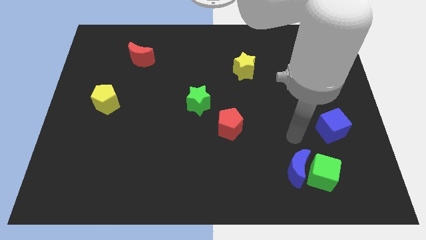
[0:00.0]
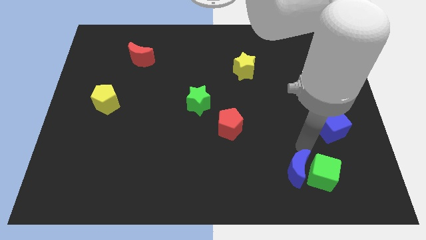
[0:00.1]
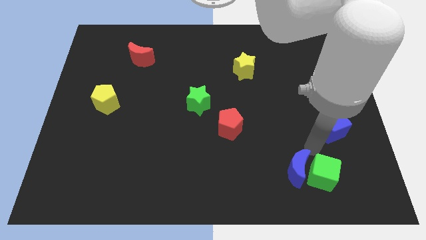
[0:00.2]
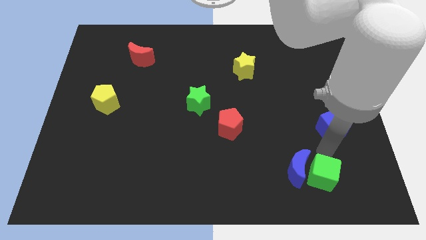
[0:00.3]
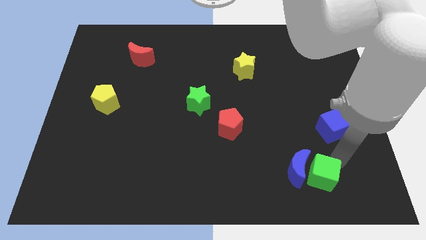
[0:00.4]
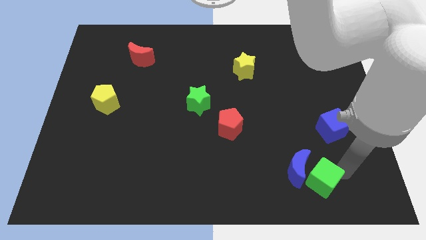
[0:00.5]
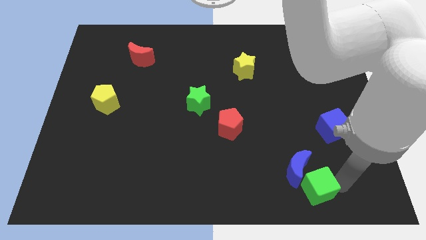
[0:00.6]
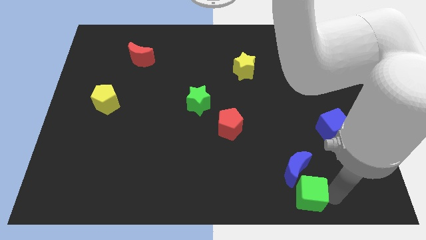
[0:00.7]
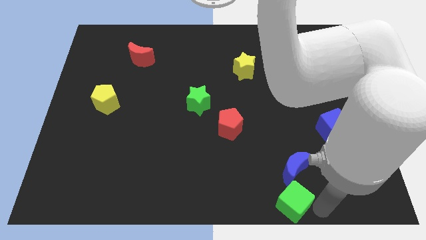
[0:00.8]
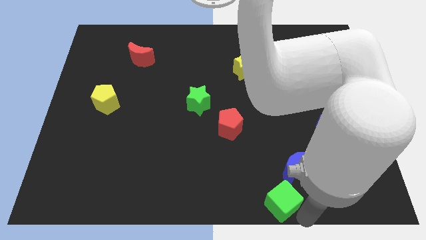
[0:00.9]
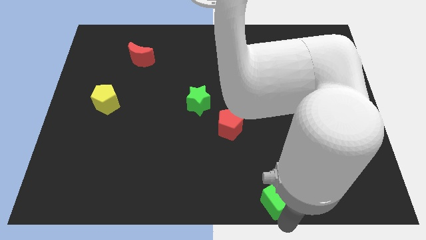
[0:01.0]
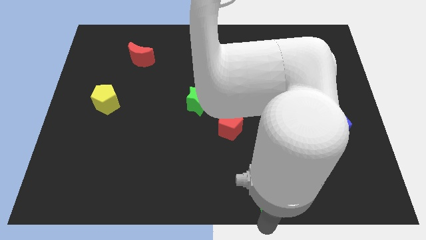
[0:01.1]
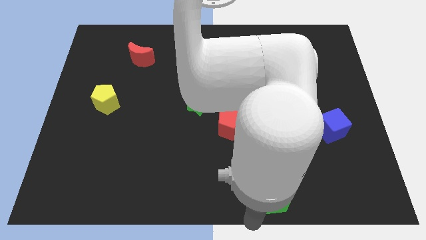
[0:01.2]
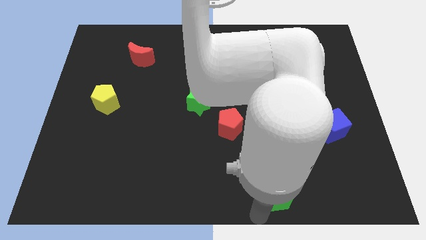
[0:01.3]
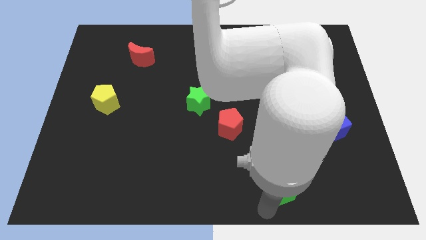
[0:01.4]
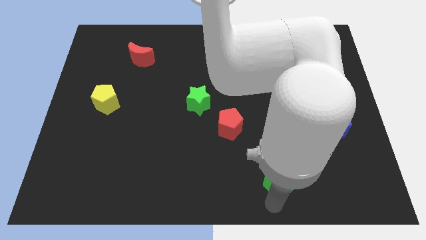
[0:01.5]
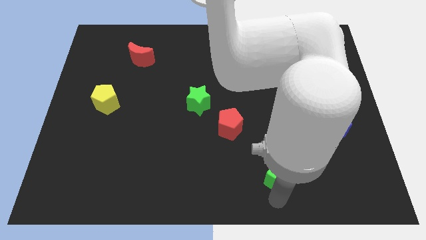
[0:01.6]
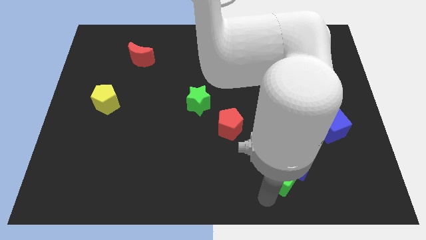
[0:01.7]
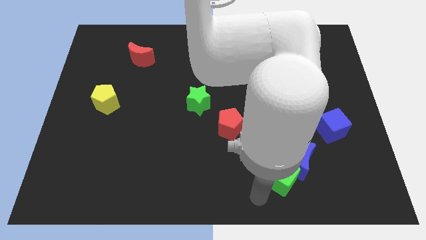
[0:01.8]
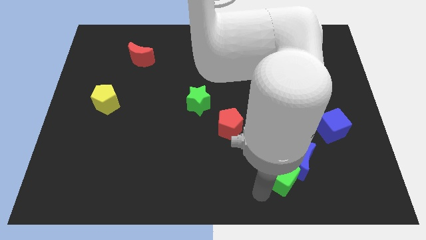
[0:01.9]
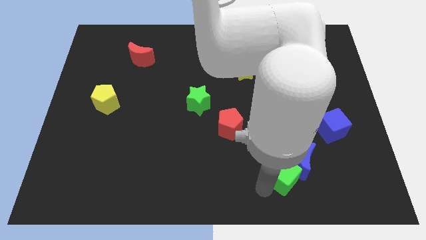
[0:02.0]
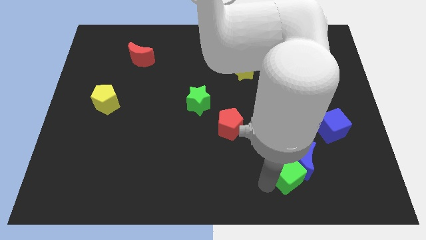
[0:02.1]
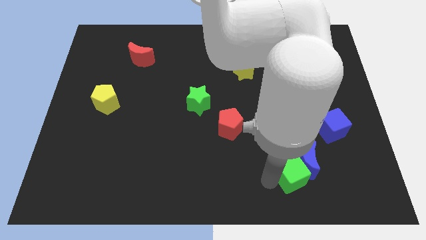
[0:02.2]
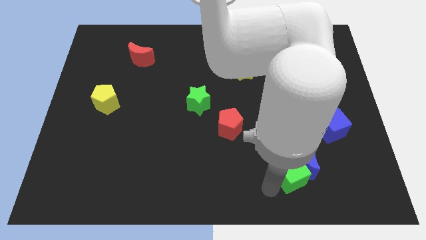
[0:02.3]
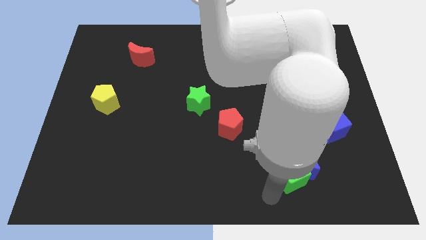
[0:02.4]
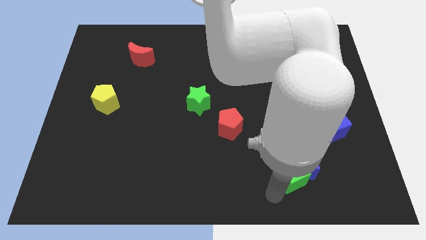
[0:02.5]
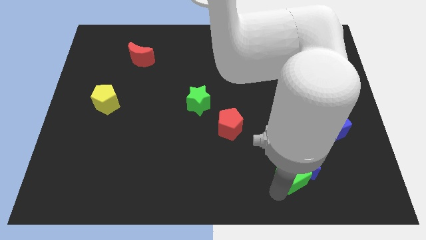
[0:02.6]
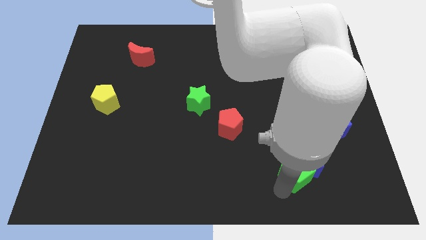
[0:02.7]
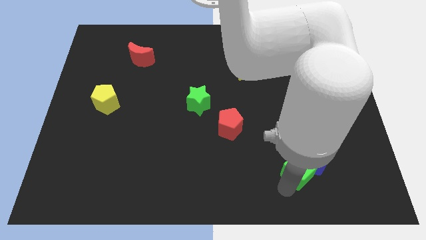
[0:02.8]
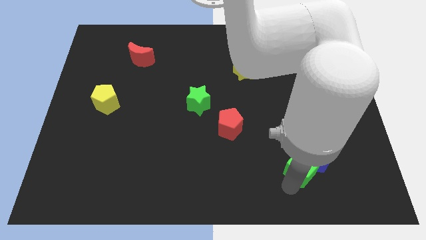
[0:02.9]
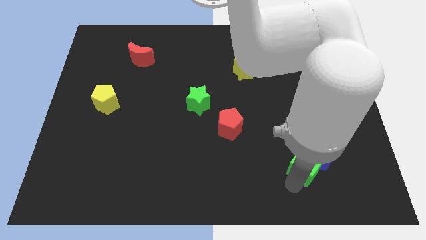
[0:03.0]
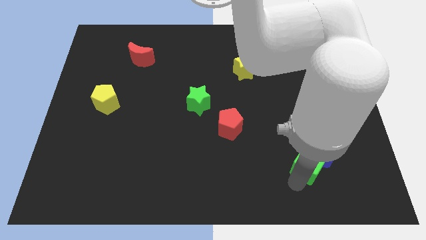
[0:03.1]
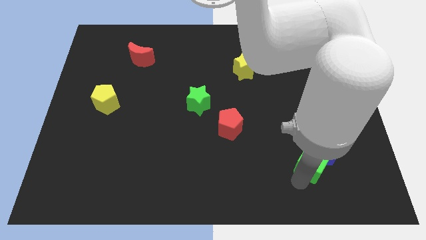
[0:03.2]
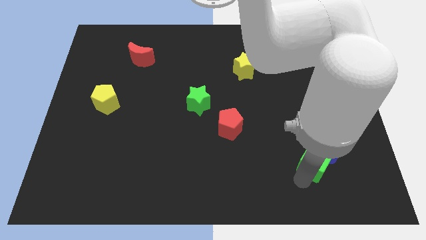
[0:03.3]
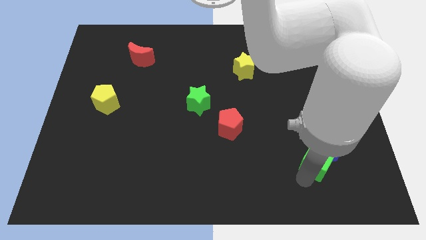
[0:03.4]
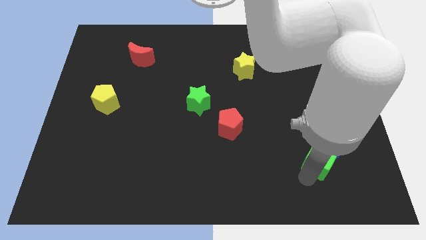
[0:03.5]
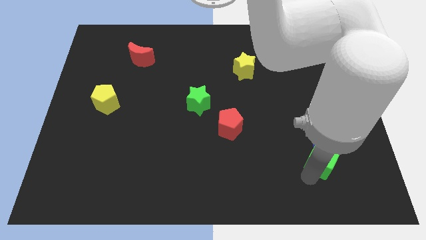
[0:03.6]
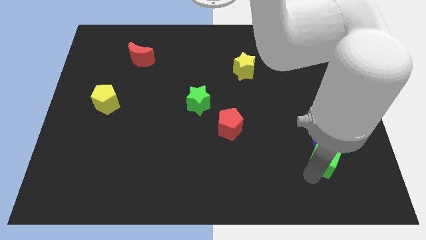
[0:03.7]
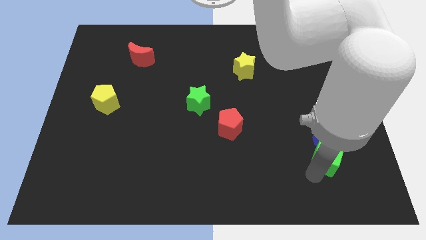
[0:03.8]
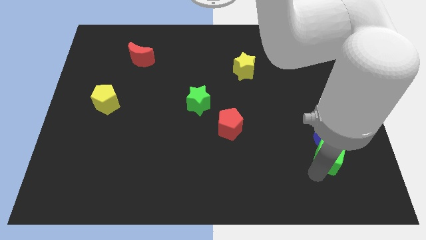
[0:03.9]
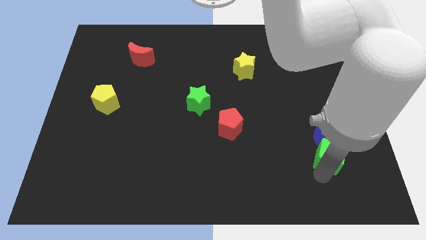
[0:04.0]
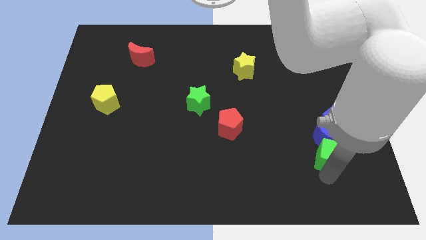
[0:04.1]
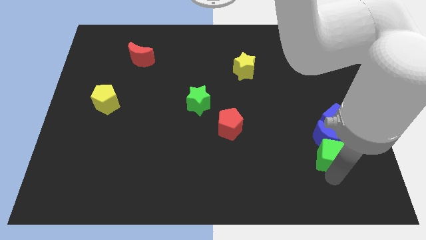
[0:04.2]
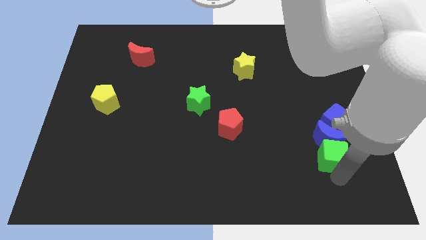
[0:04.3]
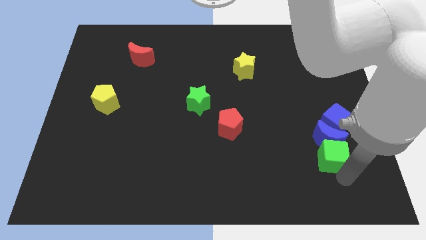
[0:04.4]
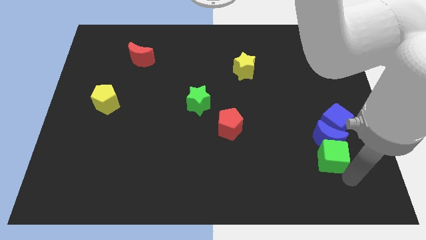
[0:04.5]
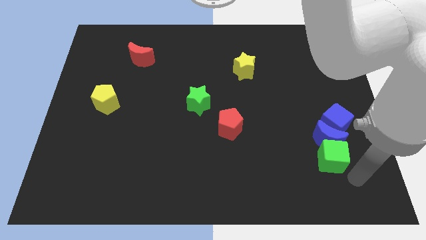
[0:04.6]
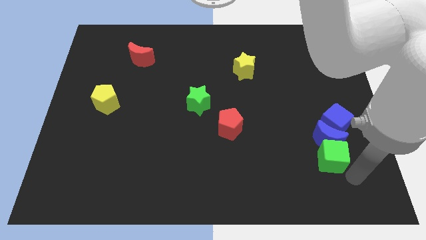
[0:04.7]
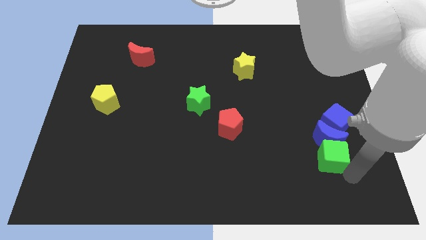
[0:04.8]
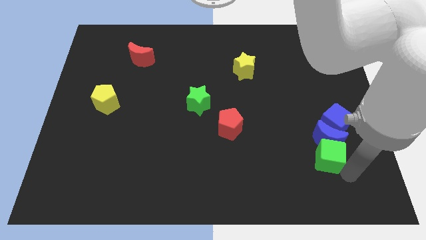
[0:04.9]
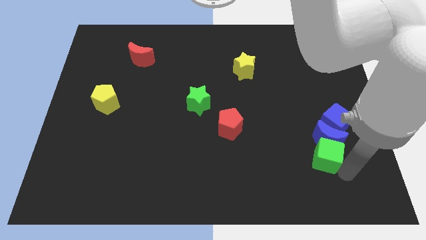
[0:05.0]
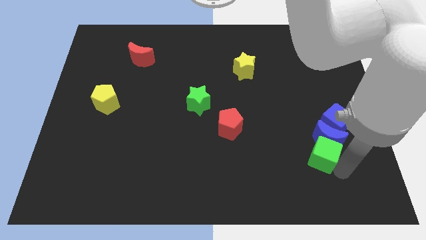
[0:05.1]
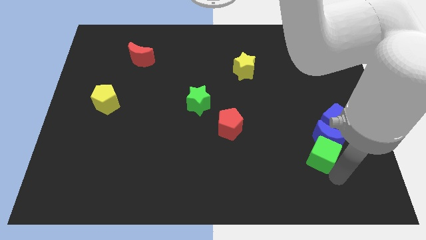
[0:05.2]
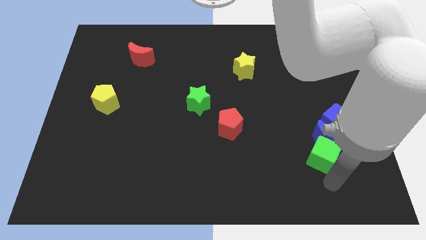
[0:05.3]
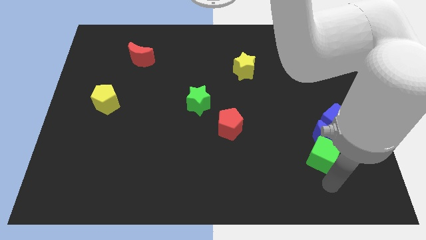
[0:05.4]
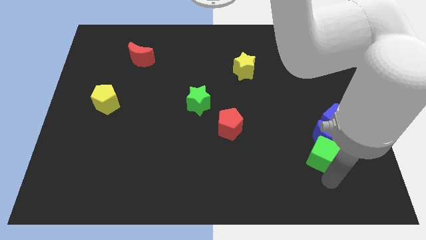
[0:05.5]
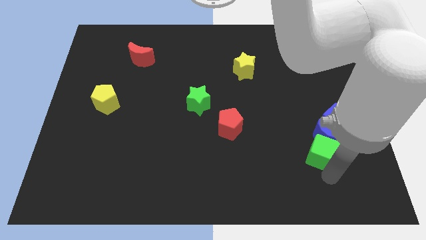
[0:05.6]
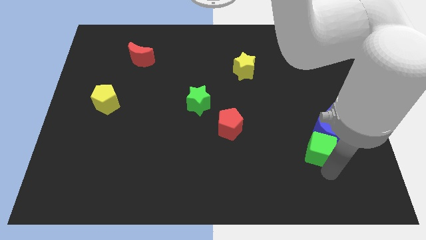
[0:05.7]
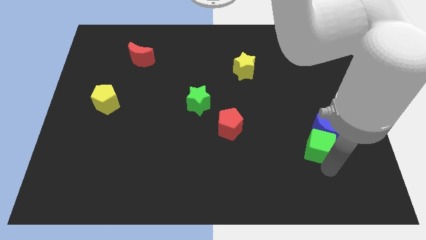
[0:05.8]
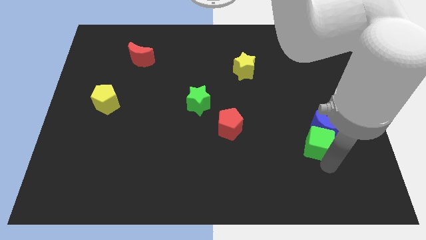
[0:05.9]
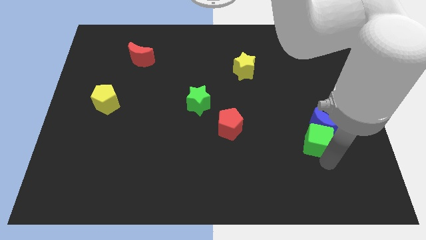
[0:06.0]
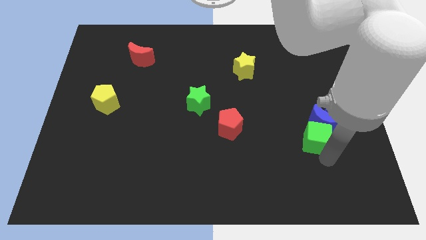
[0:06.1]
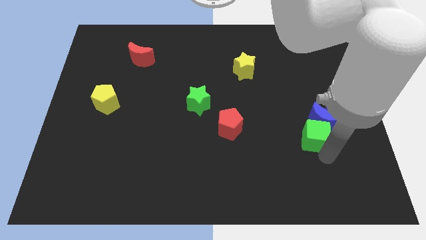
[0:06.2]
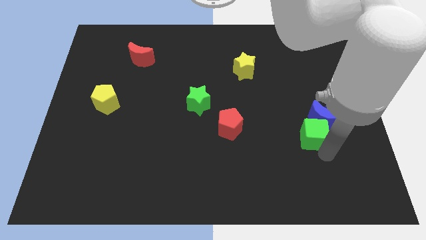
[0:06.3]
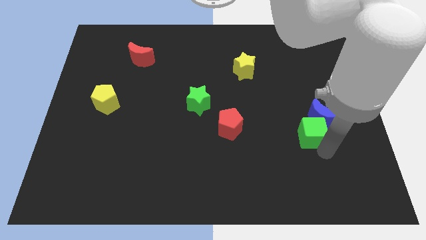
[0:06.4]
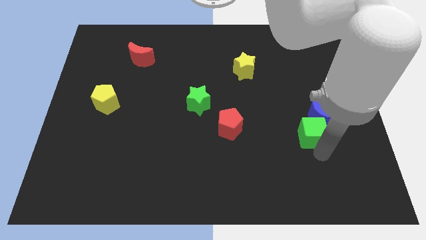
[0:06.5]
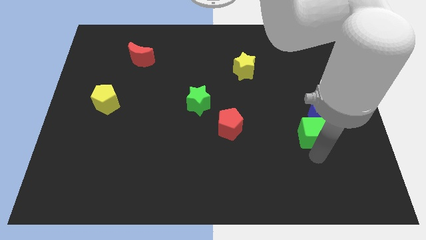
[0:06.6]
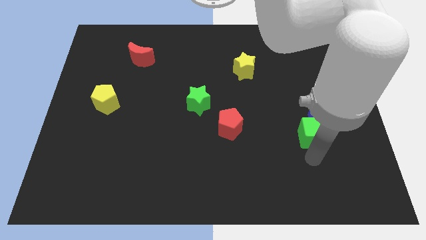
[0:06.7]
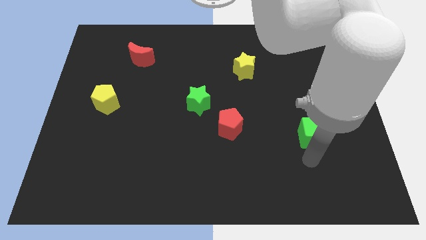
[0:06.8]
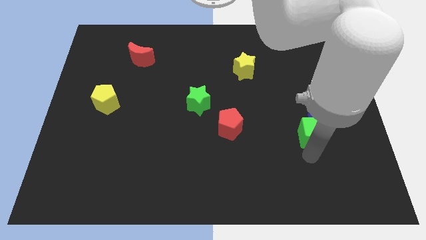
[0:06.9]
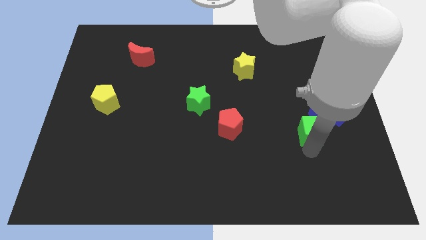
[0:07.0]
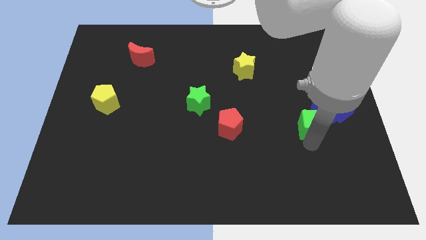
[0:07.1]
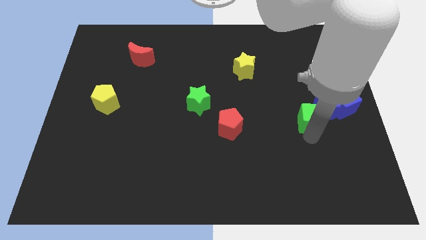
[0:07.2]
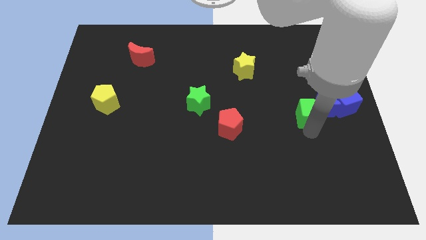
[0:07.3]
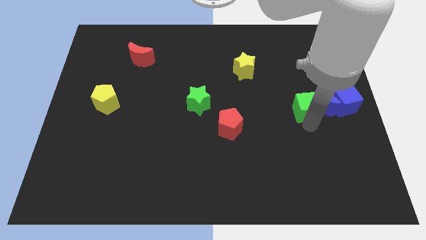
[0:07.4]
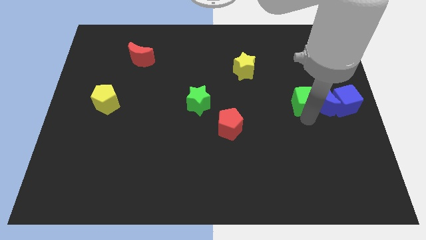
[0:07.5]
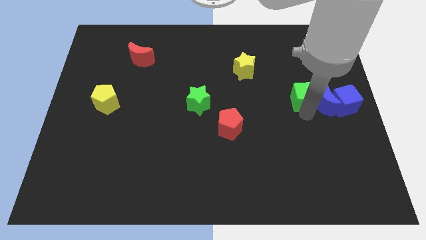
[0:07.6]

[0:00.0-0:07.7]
slide the green cube up

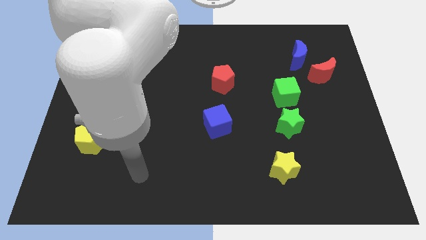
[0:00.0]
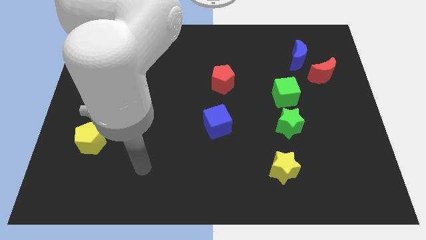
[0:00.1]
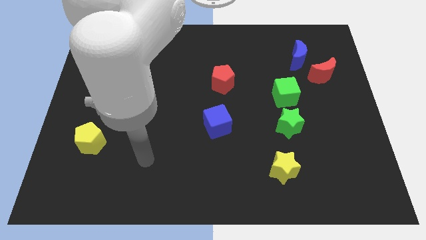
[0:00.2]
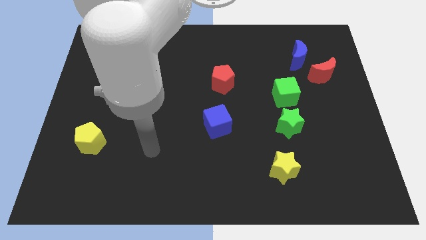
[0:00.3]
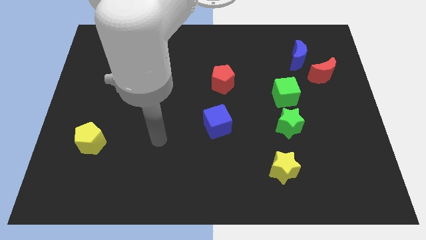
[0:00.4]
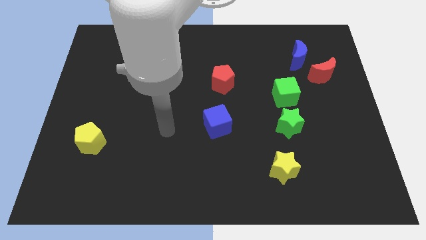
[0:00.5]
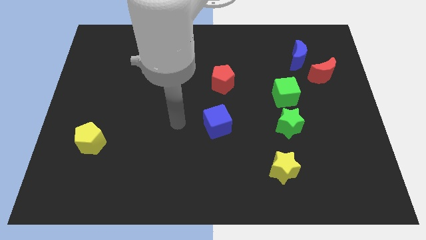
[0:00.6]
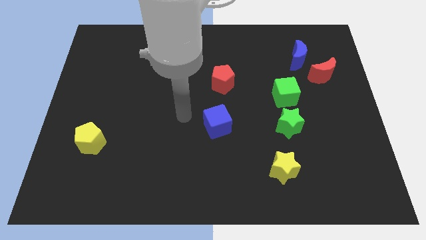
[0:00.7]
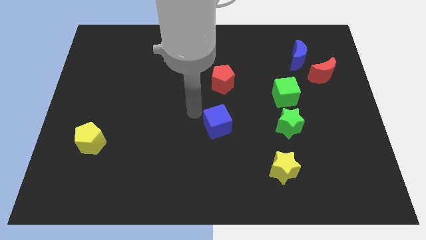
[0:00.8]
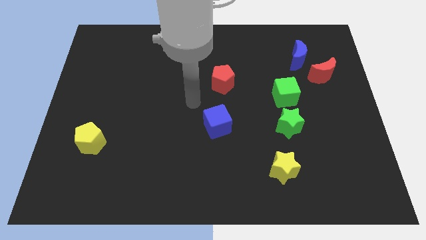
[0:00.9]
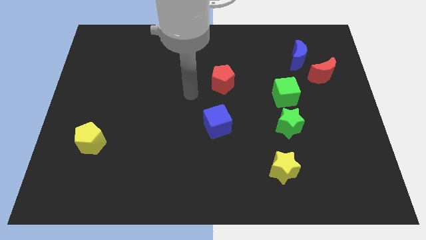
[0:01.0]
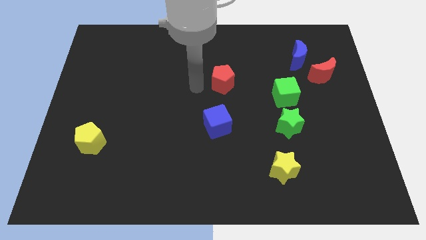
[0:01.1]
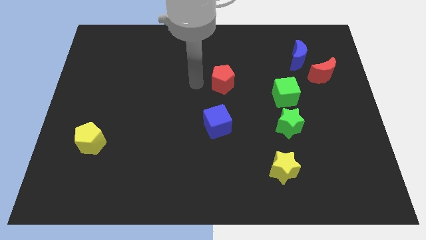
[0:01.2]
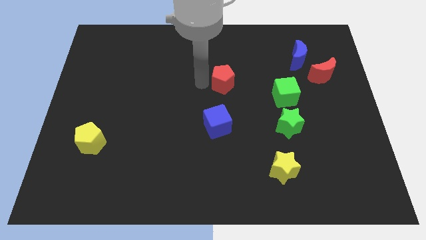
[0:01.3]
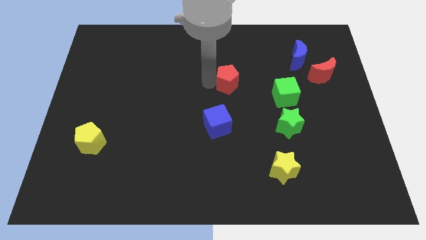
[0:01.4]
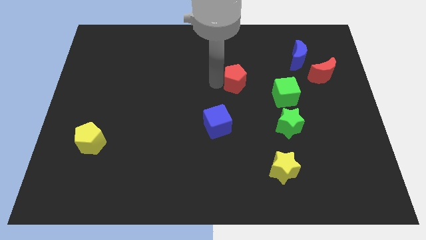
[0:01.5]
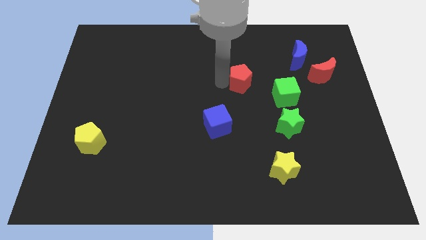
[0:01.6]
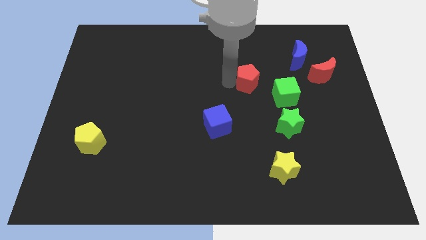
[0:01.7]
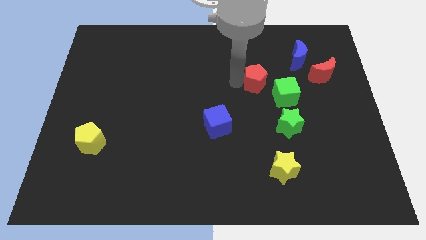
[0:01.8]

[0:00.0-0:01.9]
move the red pentagon to the right somewhat
